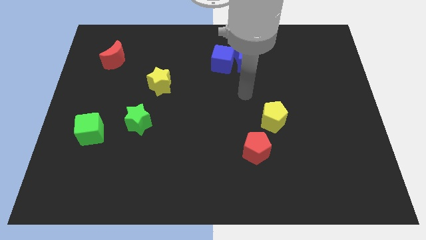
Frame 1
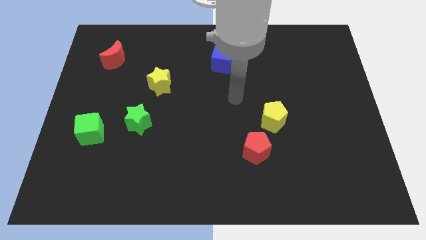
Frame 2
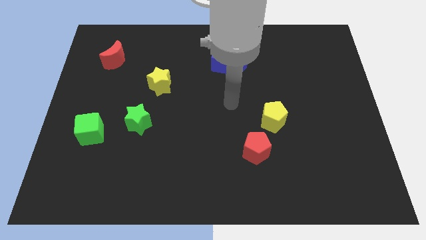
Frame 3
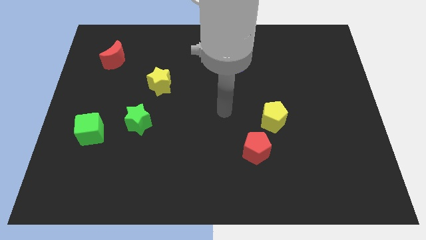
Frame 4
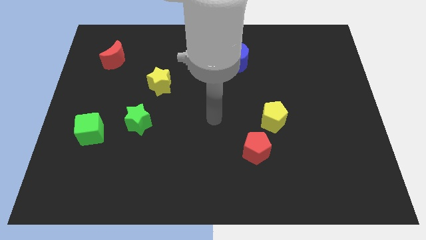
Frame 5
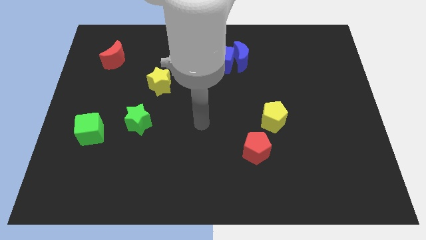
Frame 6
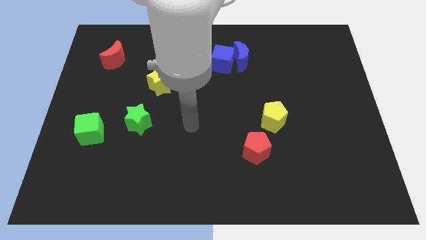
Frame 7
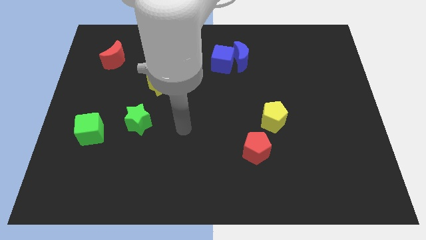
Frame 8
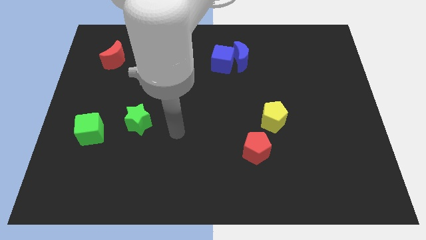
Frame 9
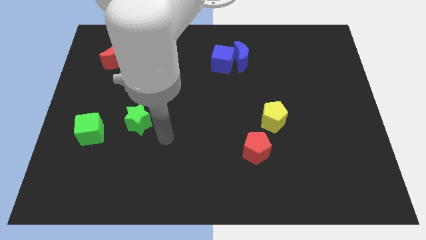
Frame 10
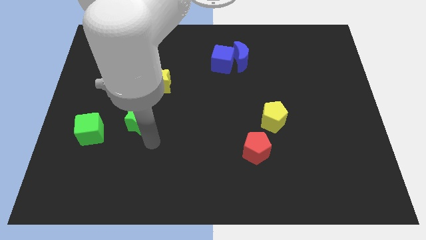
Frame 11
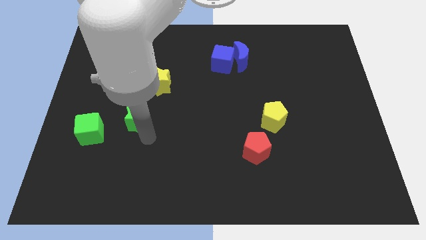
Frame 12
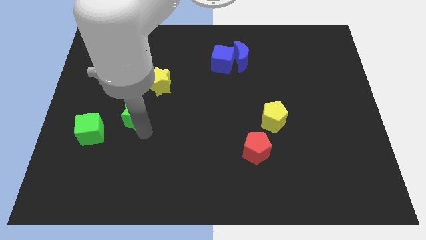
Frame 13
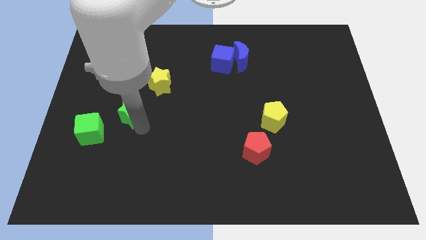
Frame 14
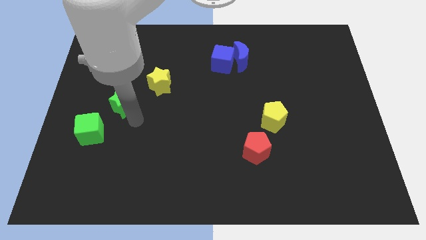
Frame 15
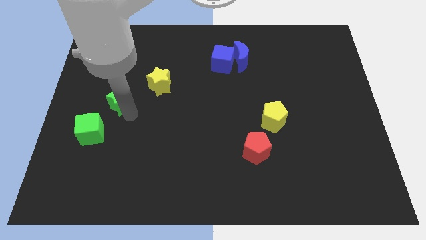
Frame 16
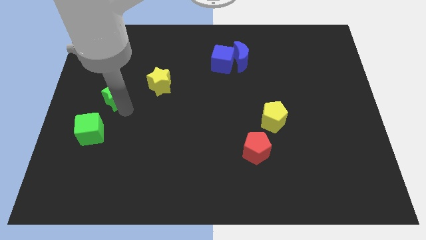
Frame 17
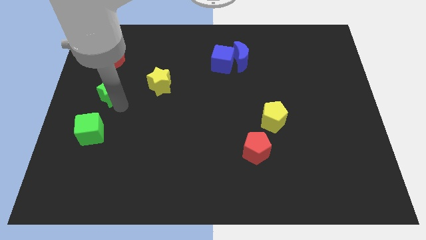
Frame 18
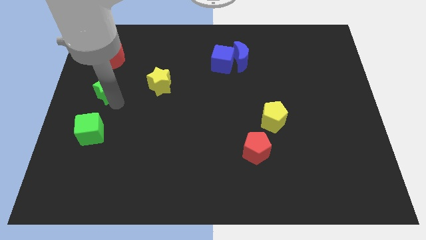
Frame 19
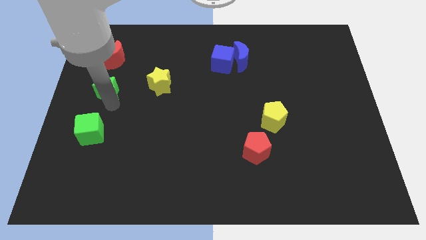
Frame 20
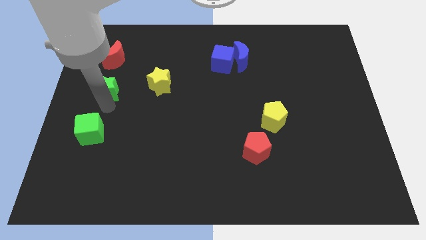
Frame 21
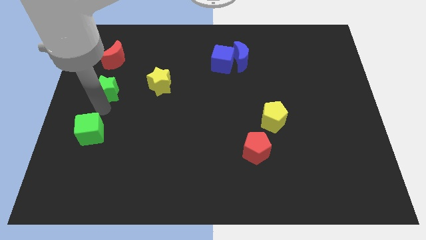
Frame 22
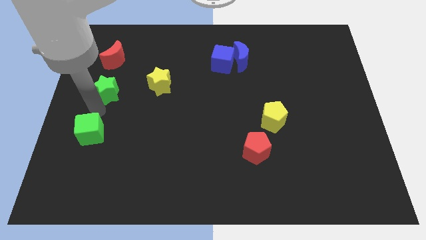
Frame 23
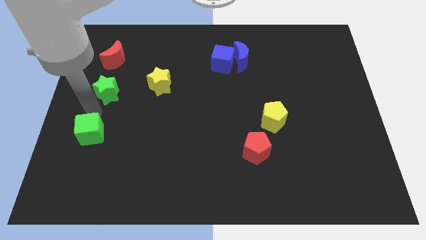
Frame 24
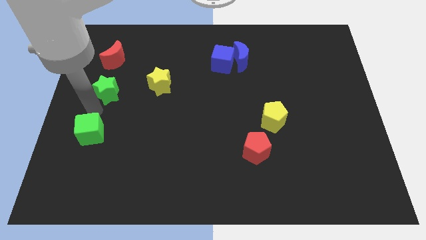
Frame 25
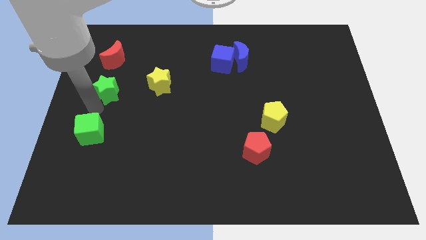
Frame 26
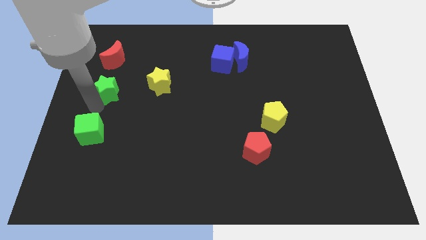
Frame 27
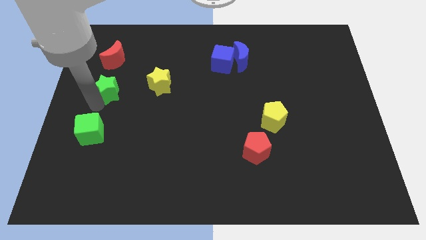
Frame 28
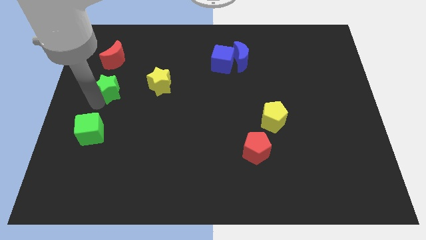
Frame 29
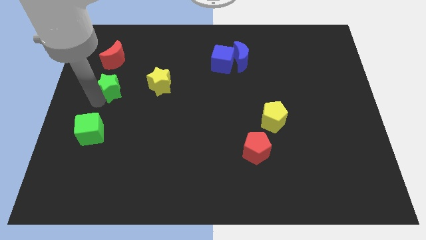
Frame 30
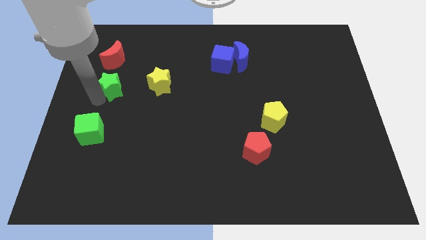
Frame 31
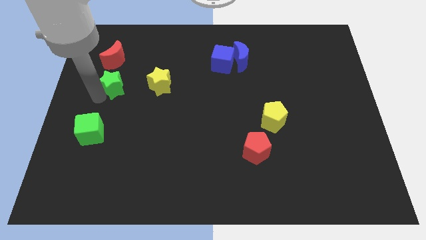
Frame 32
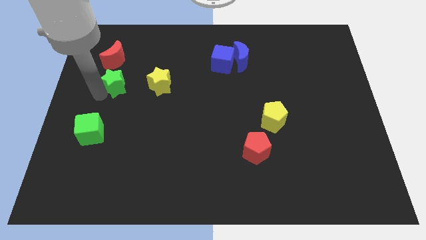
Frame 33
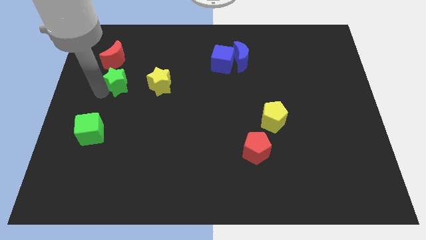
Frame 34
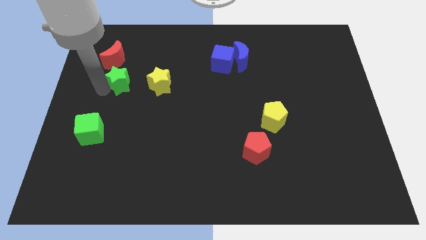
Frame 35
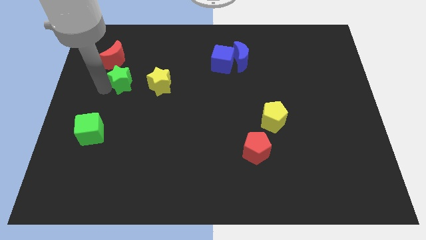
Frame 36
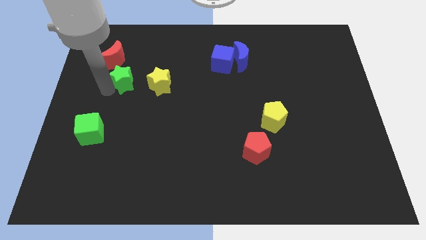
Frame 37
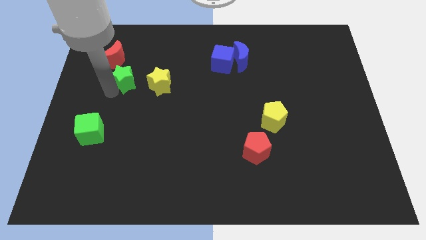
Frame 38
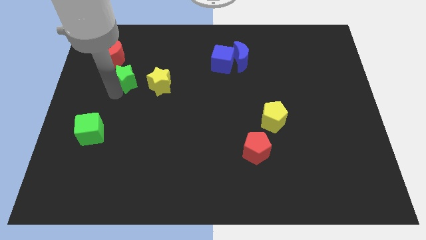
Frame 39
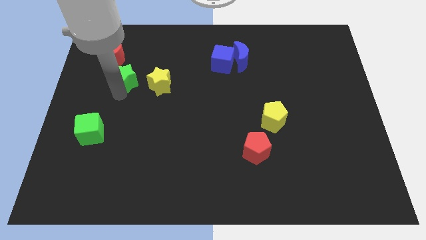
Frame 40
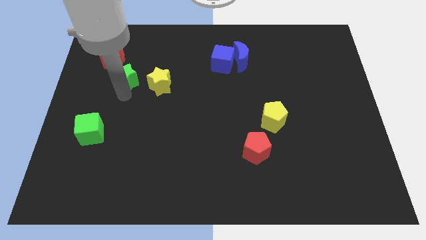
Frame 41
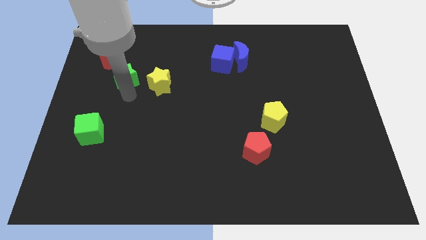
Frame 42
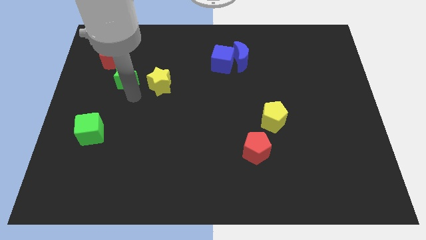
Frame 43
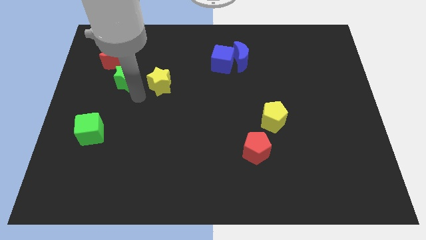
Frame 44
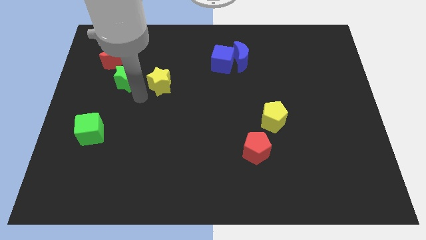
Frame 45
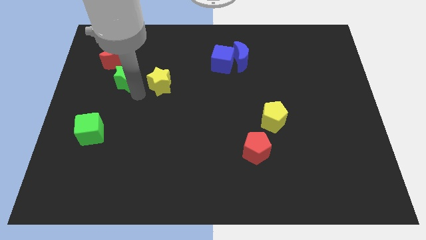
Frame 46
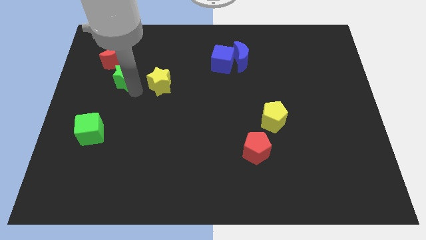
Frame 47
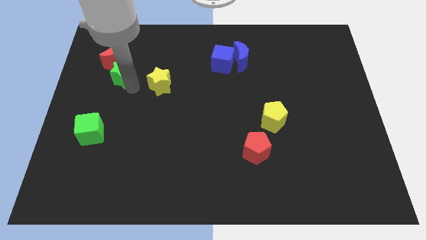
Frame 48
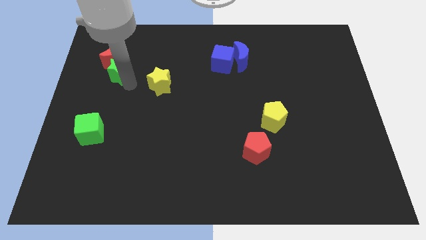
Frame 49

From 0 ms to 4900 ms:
slide the green star towards the red moon

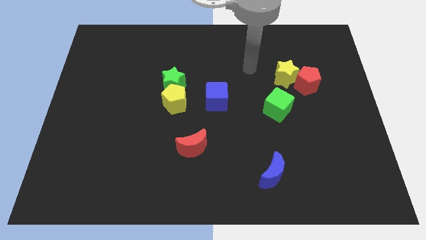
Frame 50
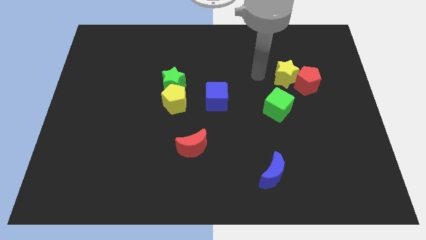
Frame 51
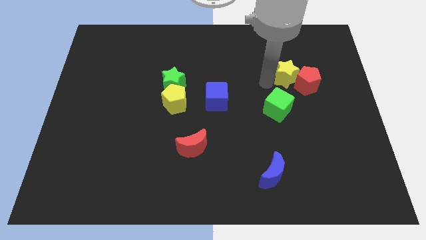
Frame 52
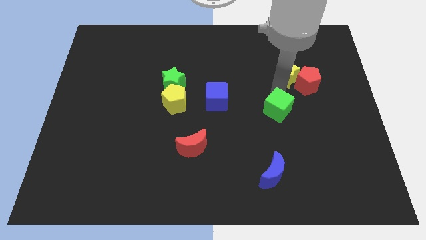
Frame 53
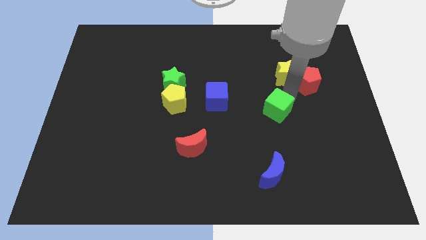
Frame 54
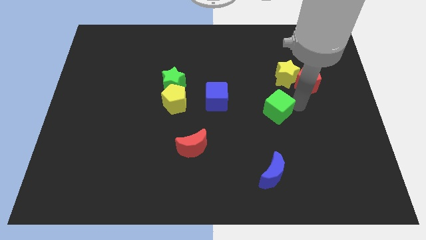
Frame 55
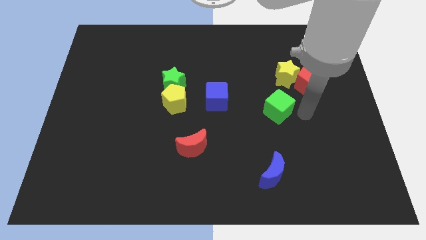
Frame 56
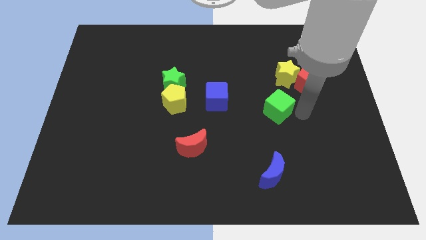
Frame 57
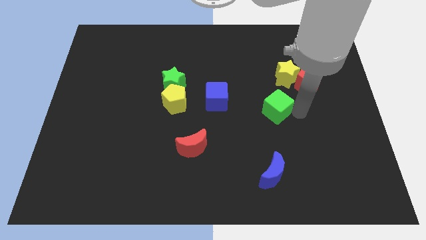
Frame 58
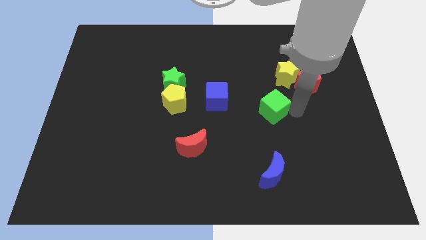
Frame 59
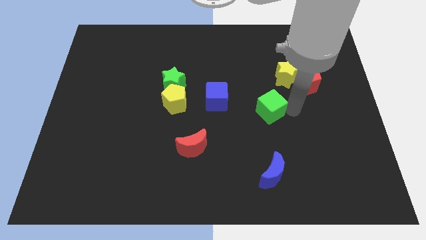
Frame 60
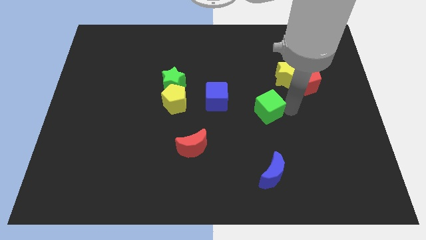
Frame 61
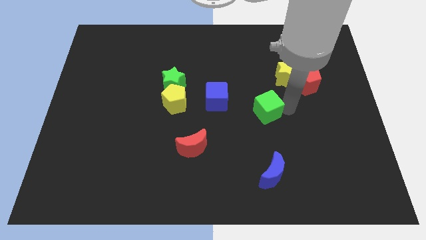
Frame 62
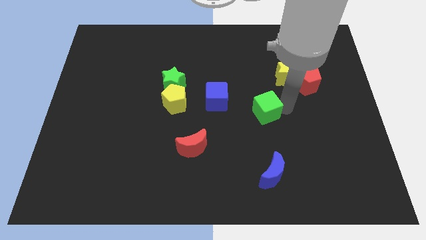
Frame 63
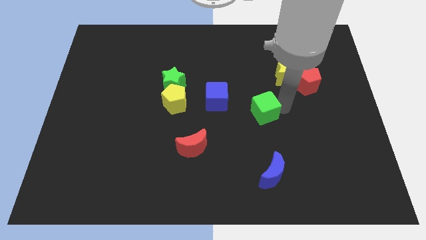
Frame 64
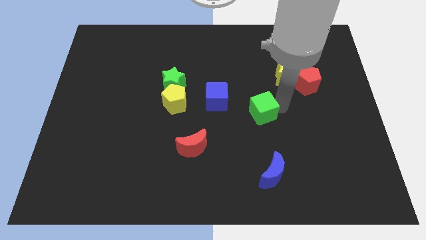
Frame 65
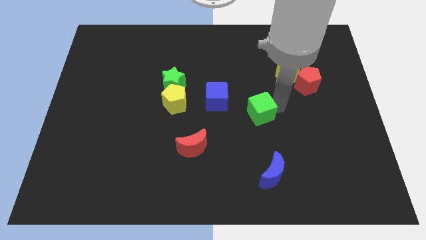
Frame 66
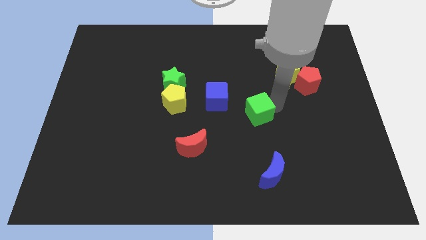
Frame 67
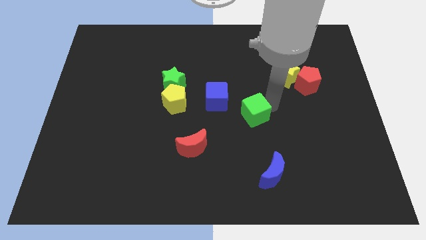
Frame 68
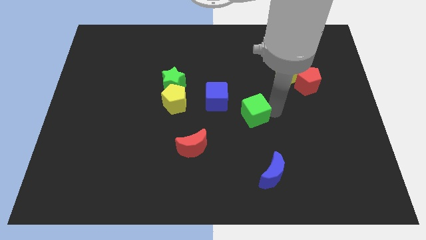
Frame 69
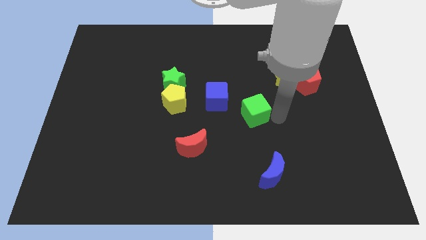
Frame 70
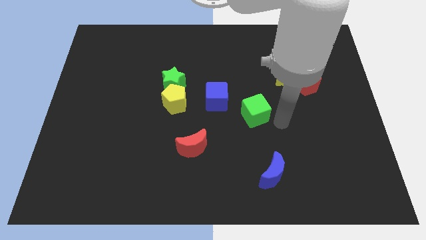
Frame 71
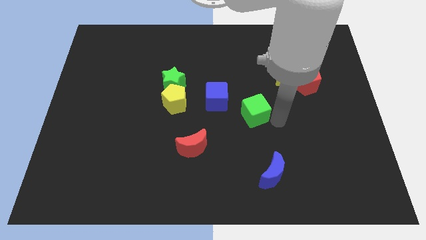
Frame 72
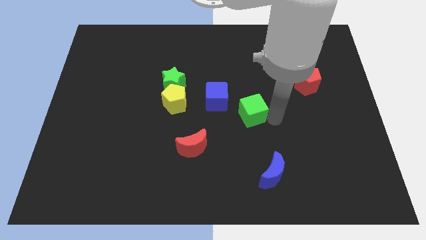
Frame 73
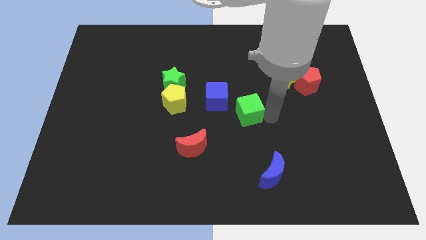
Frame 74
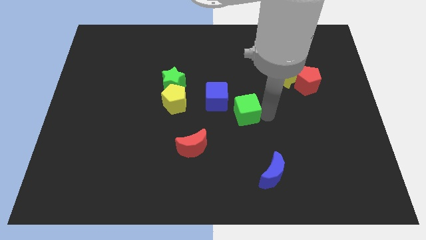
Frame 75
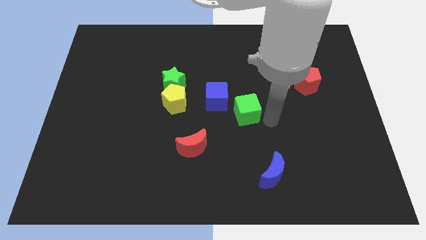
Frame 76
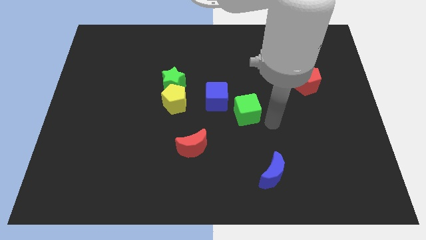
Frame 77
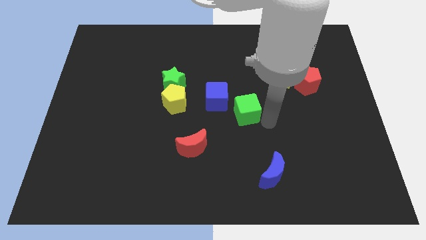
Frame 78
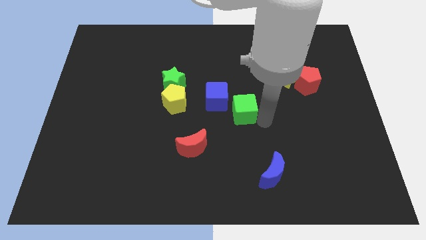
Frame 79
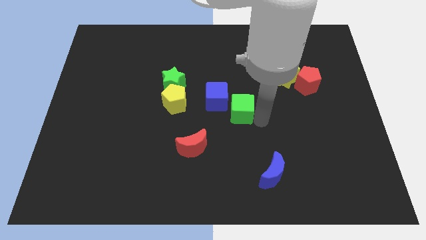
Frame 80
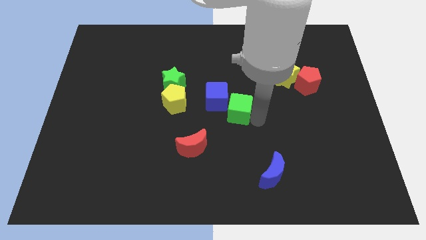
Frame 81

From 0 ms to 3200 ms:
move the green cube close to the blue cube
